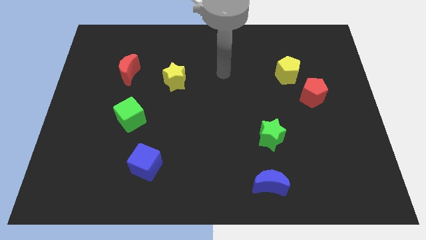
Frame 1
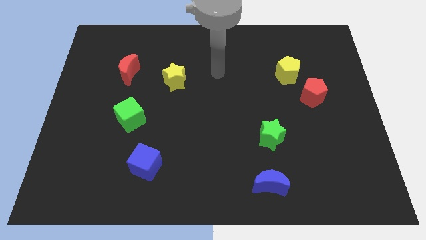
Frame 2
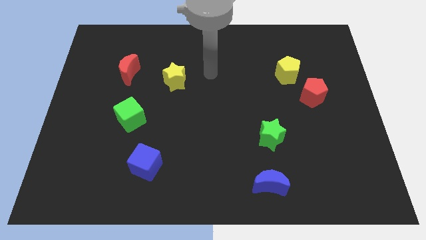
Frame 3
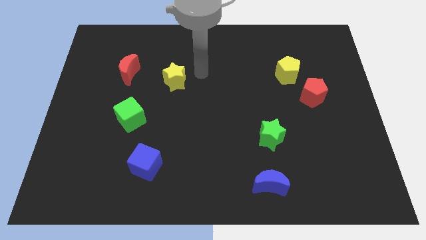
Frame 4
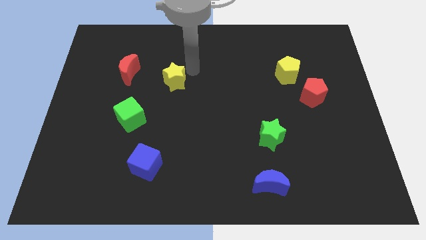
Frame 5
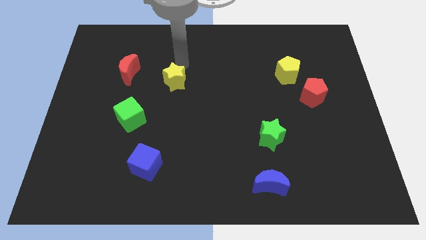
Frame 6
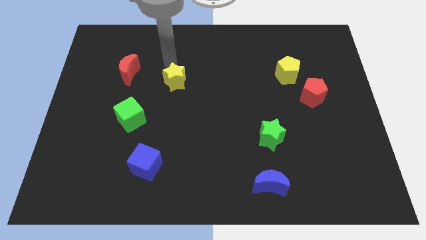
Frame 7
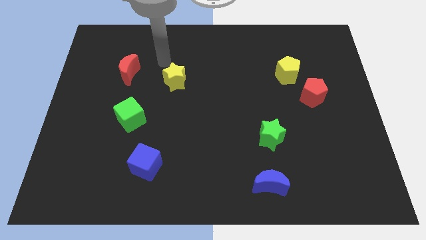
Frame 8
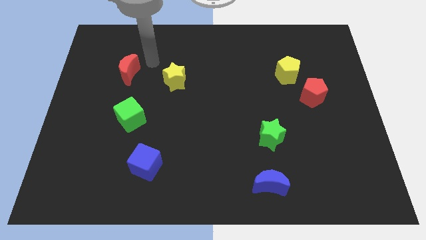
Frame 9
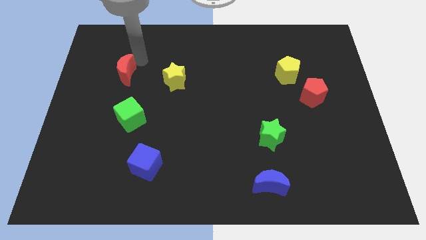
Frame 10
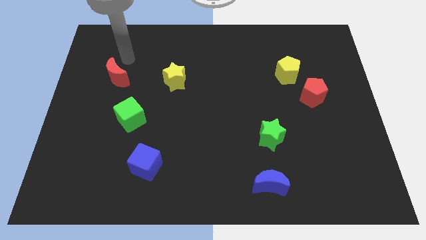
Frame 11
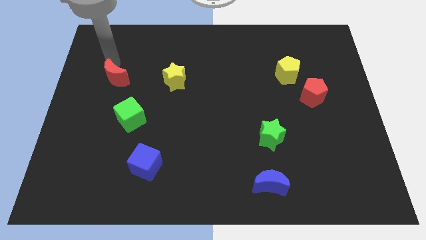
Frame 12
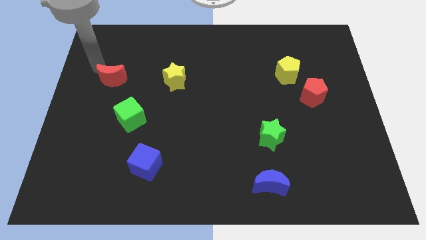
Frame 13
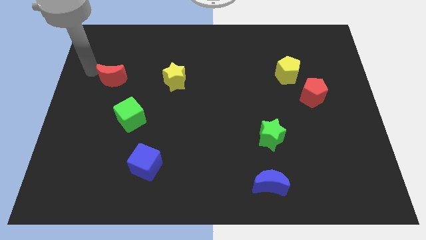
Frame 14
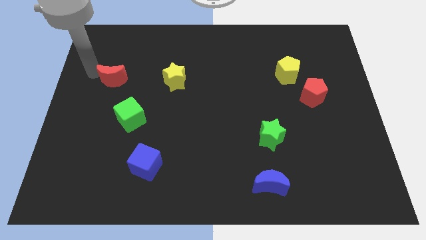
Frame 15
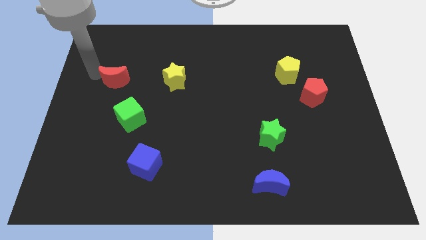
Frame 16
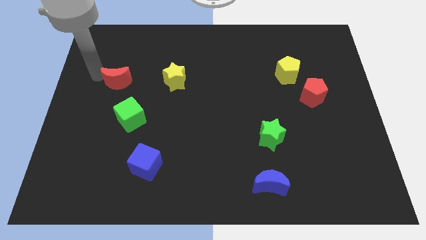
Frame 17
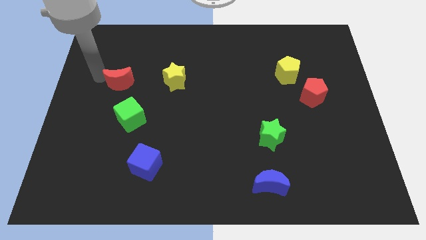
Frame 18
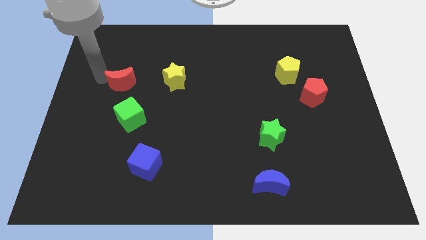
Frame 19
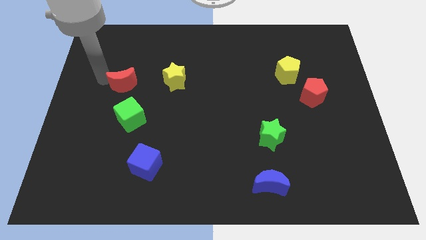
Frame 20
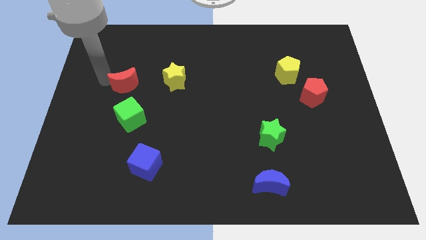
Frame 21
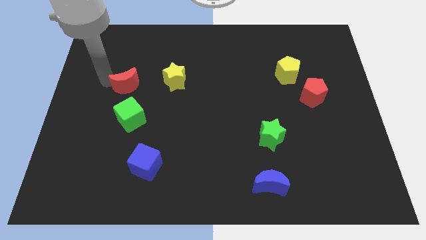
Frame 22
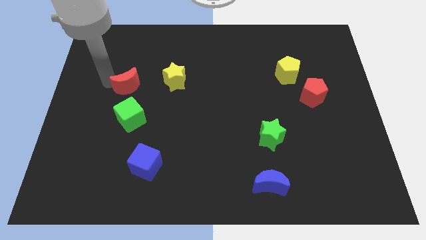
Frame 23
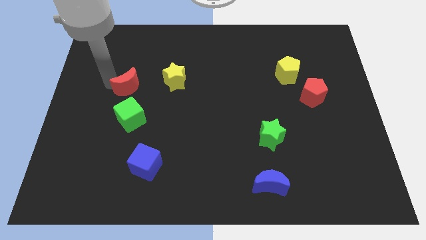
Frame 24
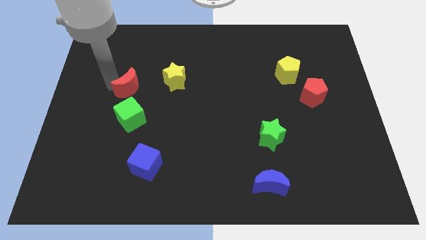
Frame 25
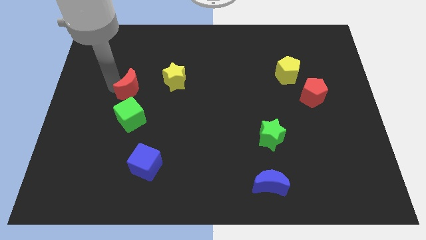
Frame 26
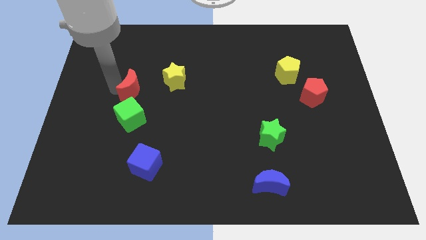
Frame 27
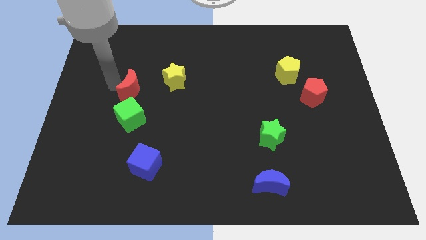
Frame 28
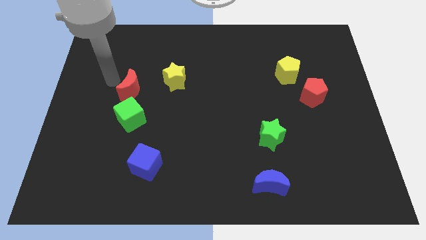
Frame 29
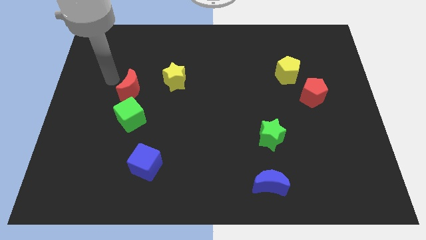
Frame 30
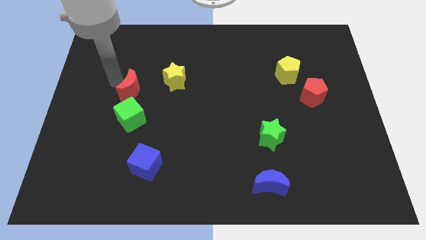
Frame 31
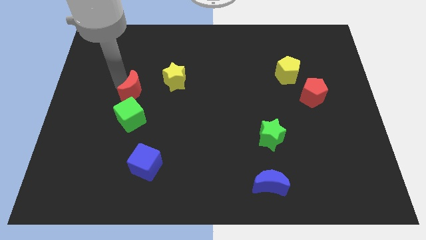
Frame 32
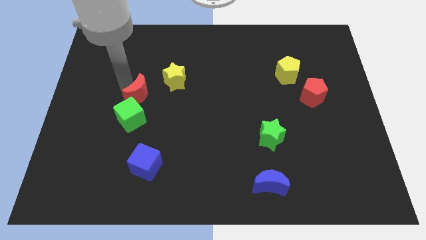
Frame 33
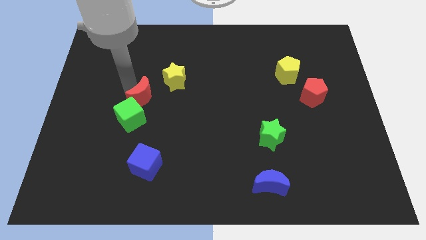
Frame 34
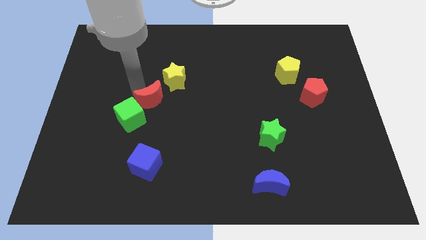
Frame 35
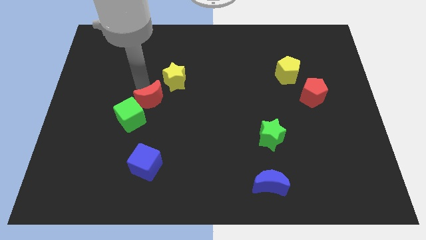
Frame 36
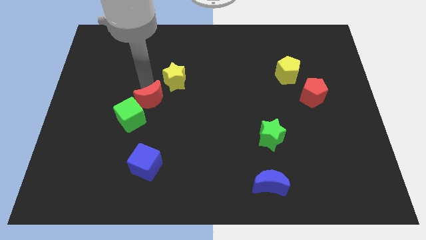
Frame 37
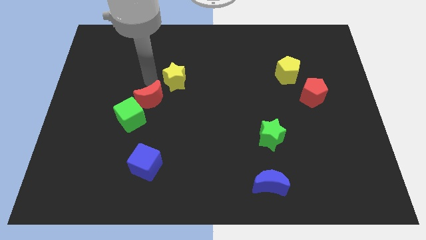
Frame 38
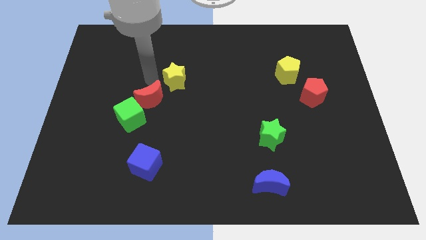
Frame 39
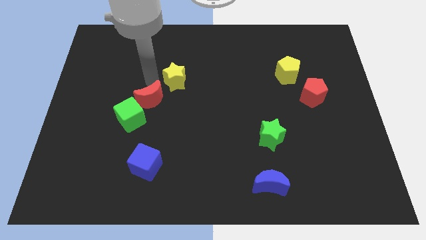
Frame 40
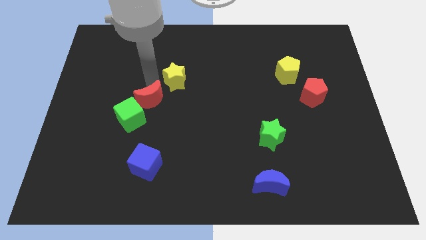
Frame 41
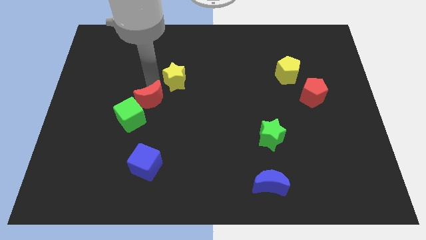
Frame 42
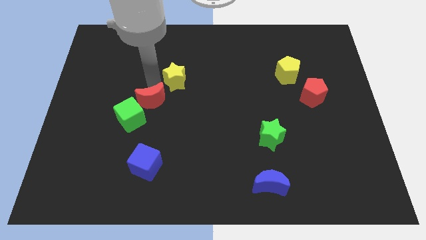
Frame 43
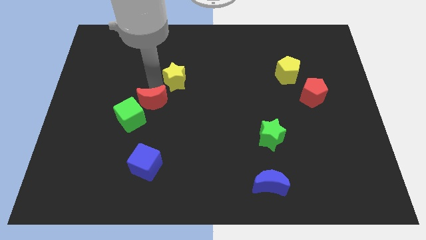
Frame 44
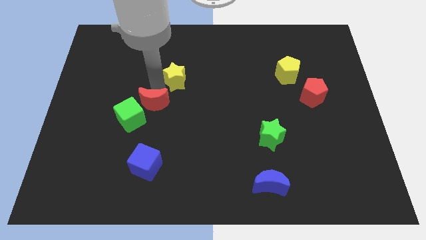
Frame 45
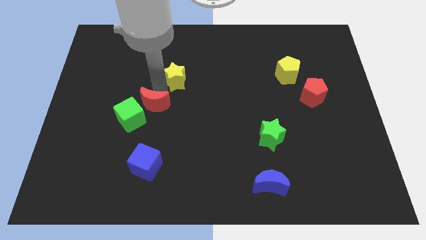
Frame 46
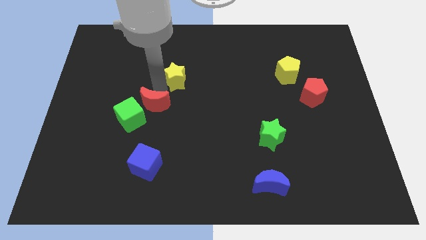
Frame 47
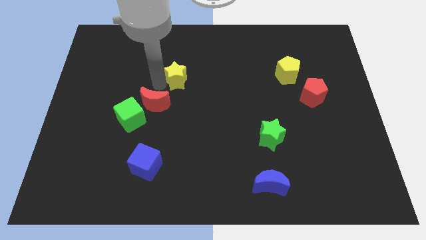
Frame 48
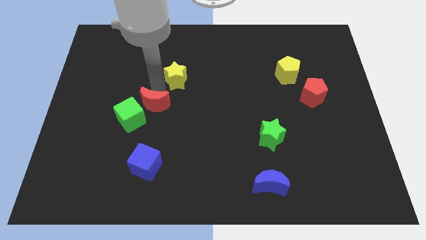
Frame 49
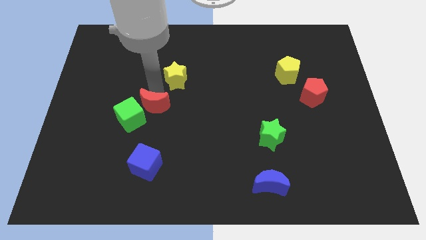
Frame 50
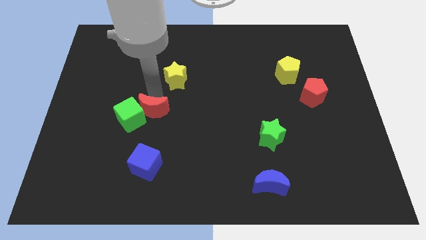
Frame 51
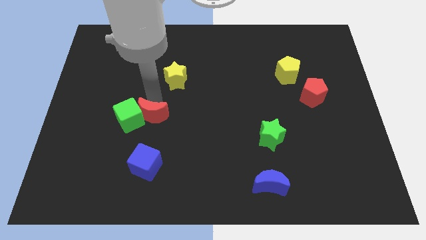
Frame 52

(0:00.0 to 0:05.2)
move the red moon diagonally down and to the right of the green cube

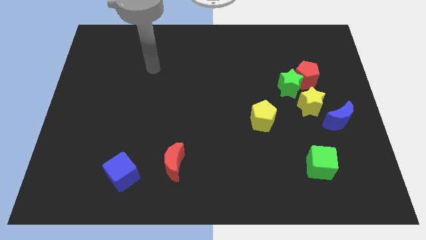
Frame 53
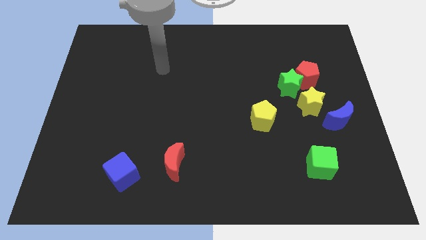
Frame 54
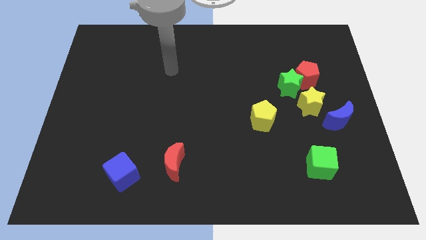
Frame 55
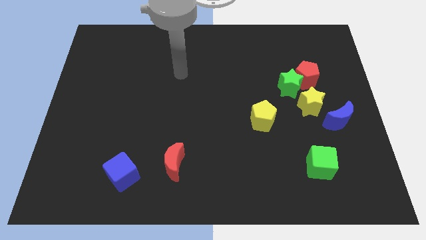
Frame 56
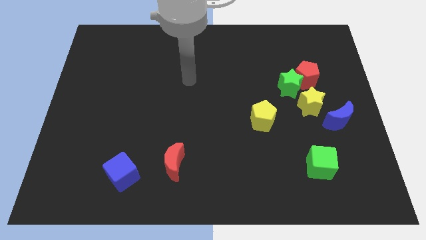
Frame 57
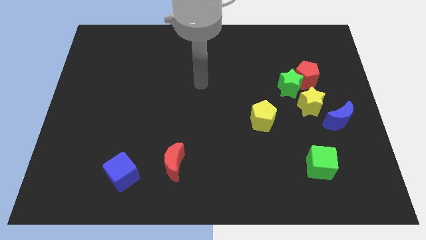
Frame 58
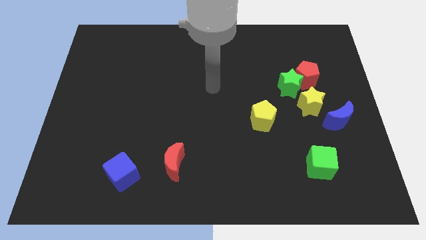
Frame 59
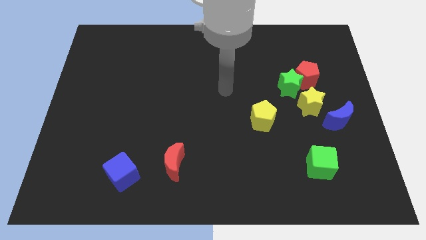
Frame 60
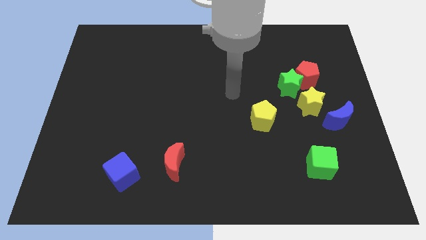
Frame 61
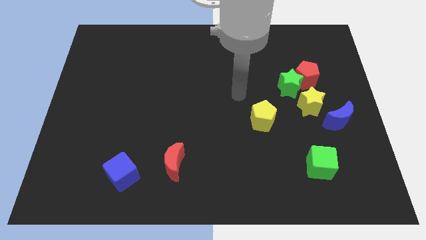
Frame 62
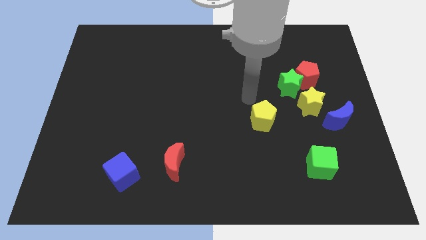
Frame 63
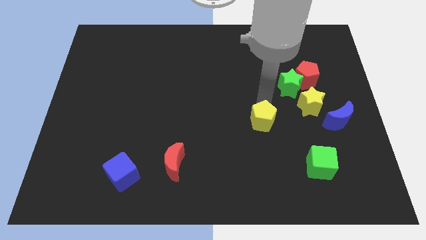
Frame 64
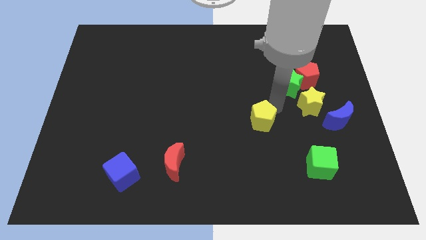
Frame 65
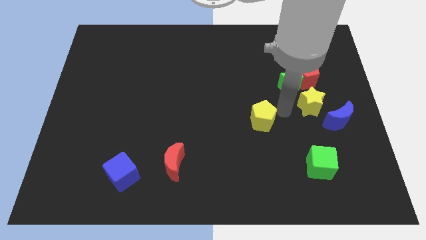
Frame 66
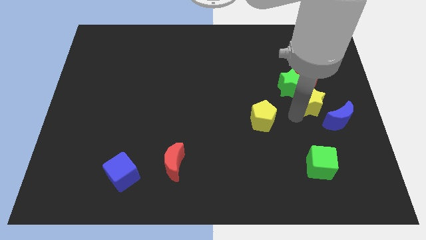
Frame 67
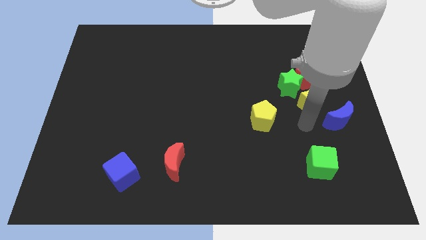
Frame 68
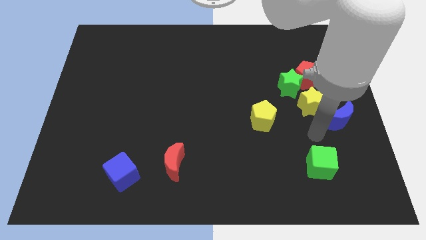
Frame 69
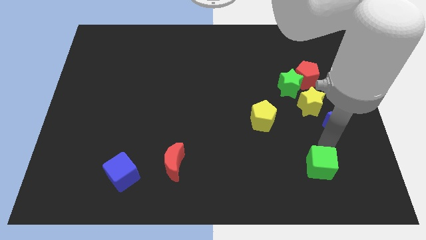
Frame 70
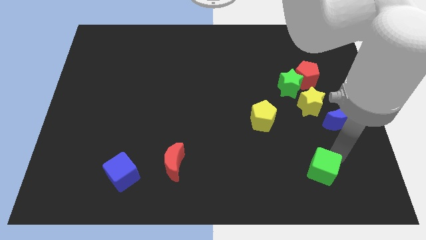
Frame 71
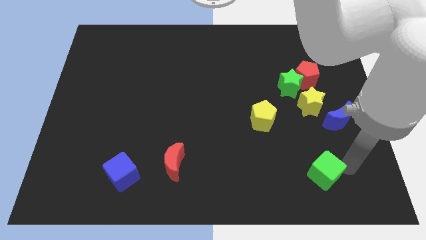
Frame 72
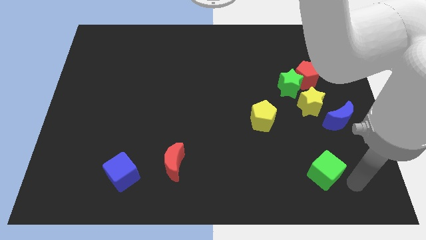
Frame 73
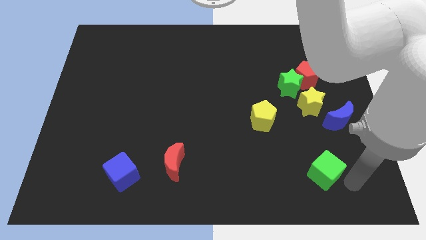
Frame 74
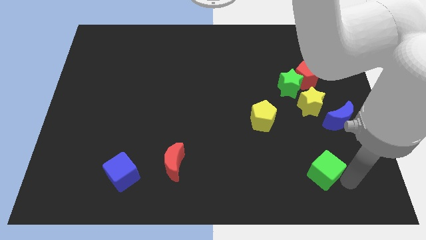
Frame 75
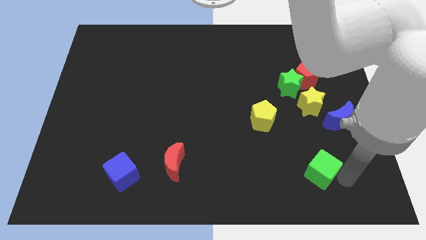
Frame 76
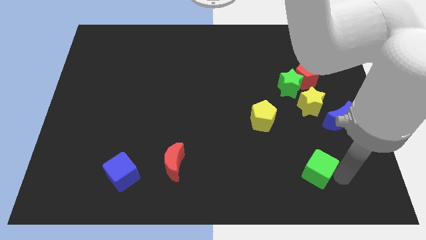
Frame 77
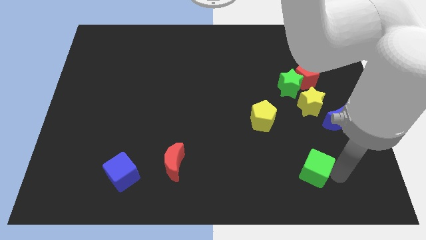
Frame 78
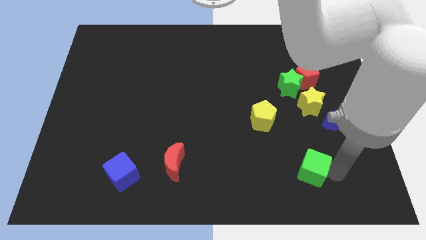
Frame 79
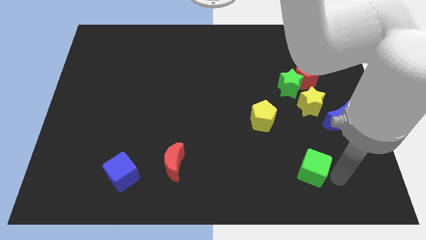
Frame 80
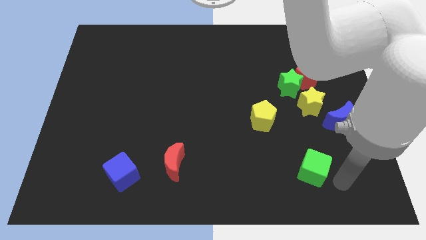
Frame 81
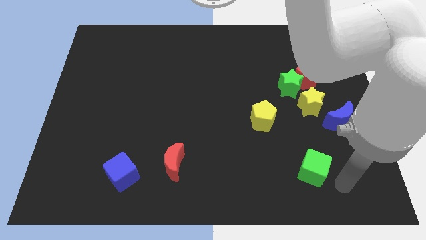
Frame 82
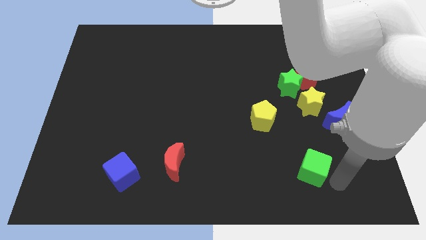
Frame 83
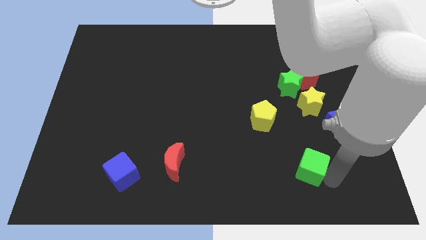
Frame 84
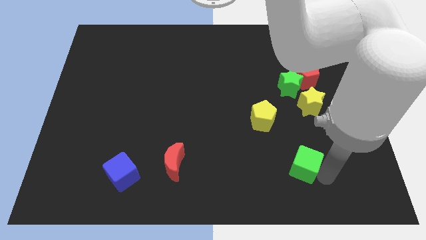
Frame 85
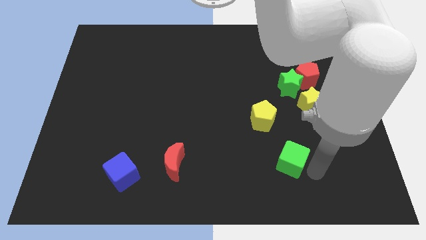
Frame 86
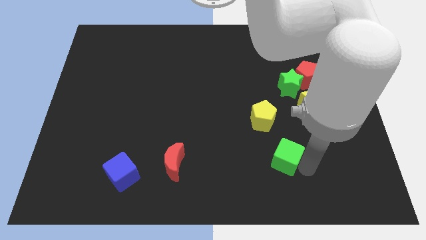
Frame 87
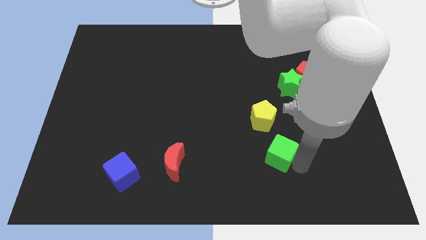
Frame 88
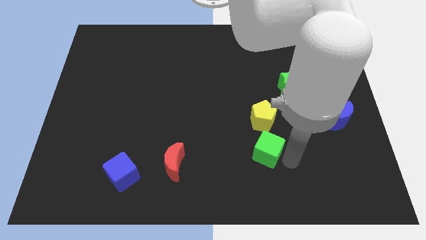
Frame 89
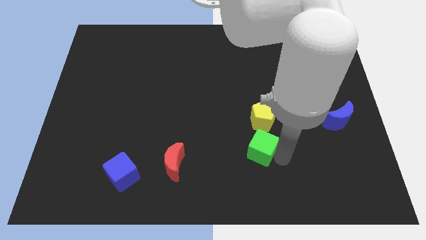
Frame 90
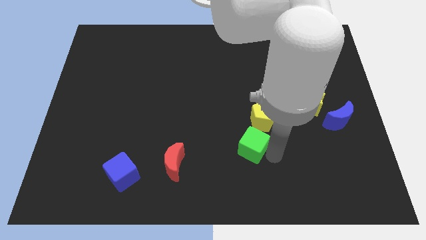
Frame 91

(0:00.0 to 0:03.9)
push the green cube to the bottom left side of the yellow pentagon
